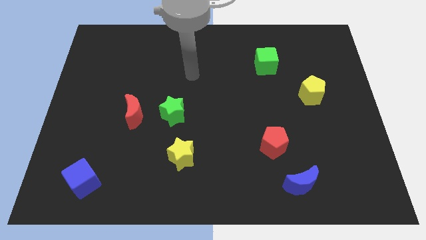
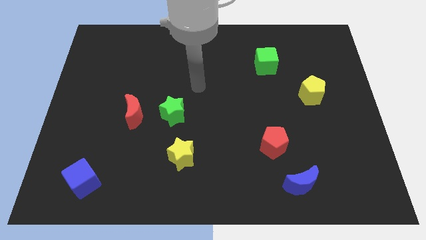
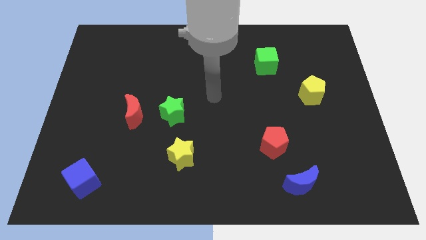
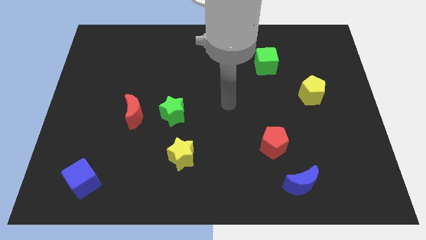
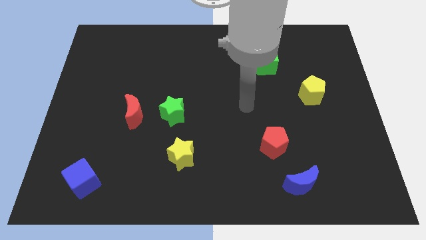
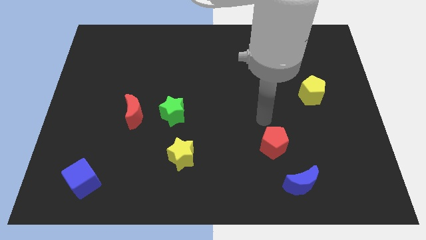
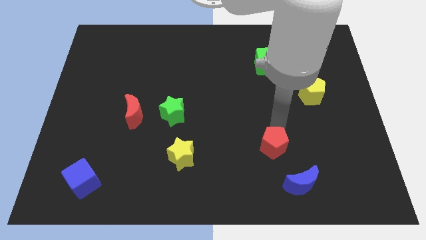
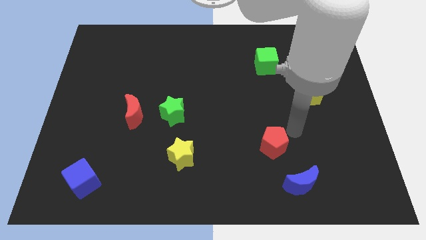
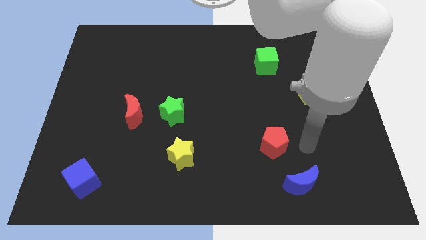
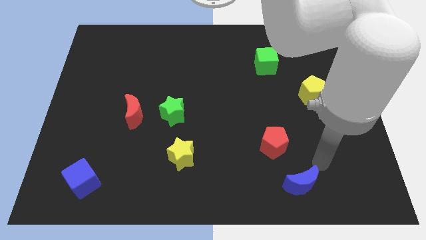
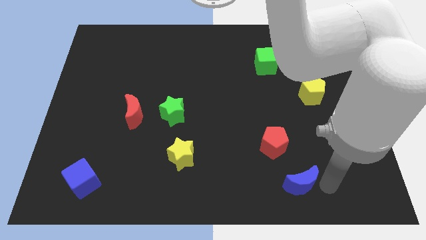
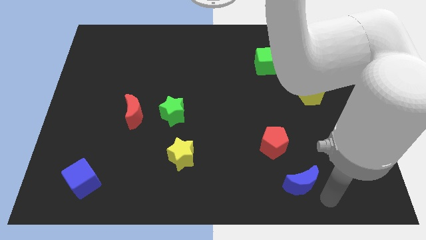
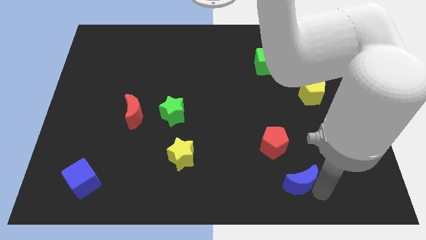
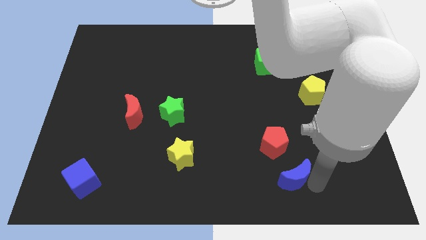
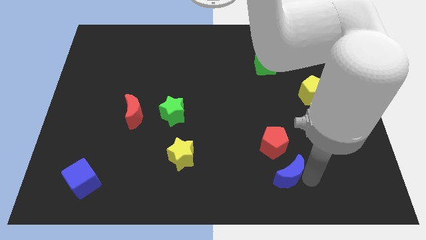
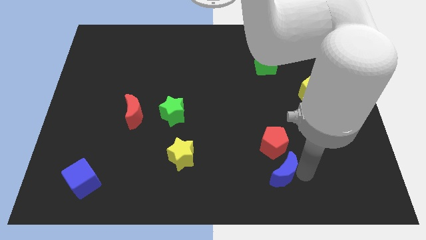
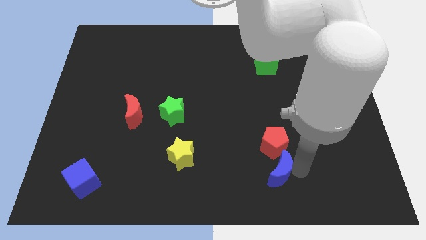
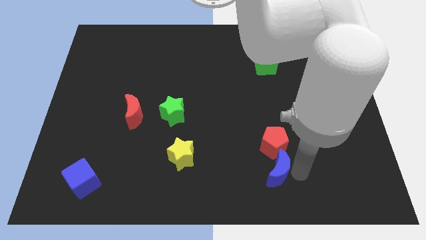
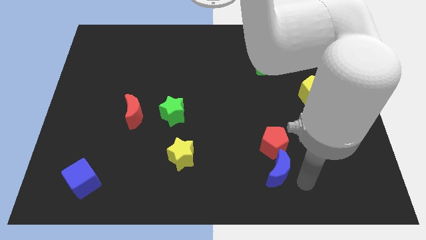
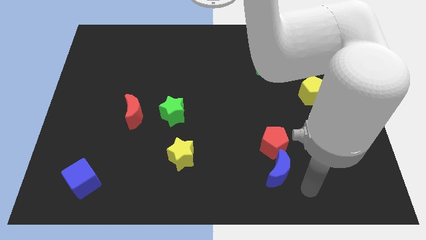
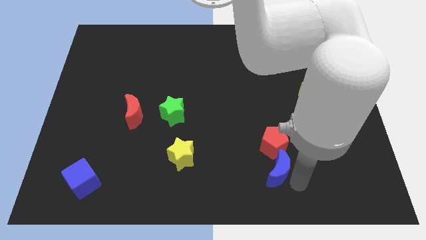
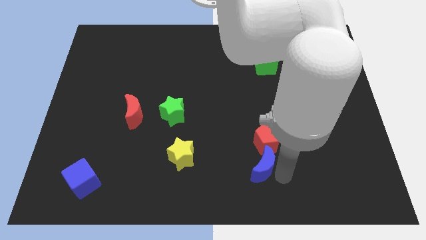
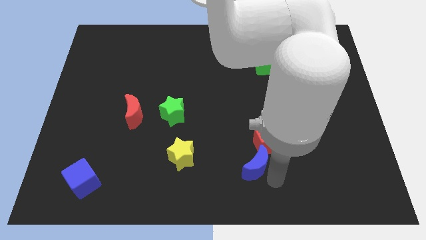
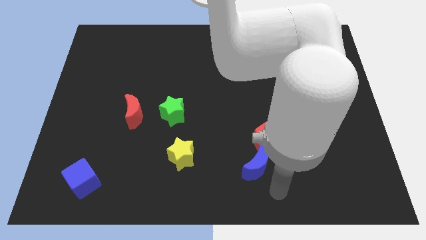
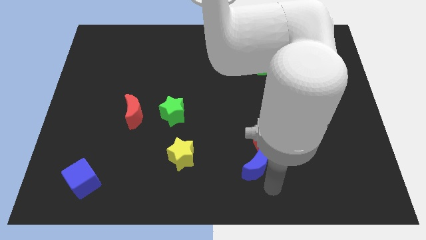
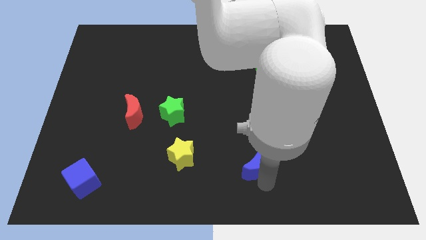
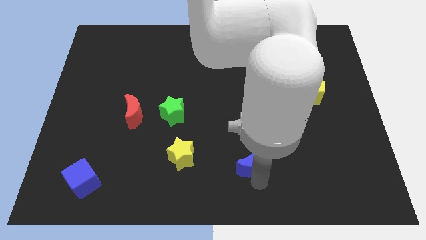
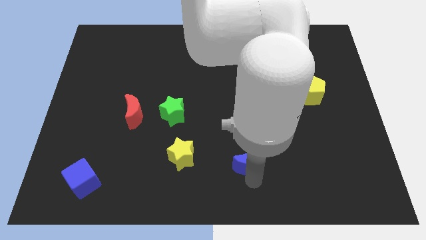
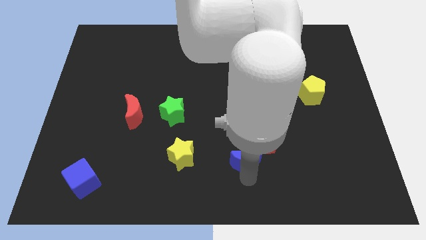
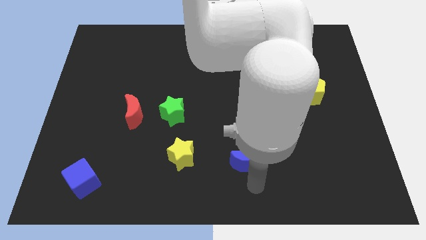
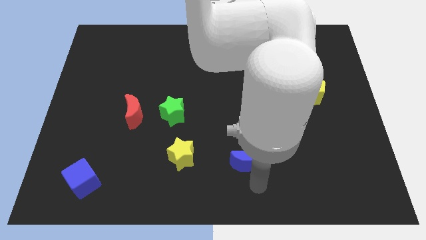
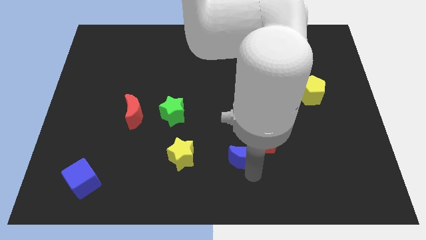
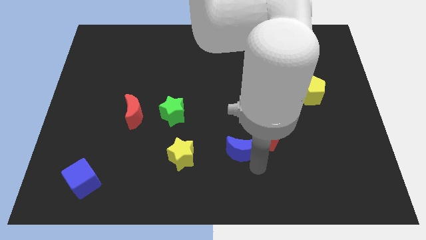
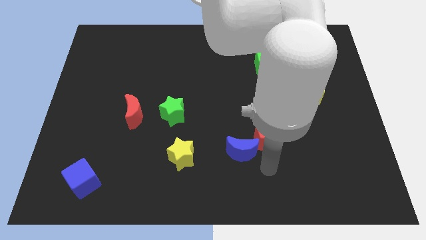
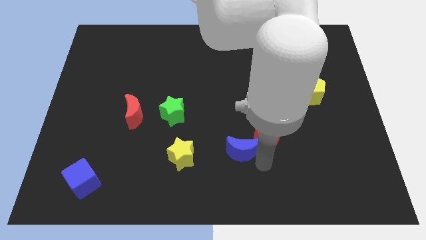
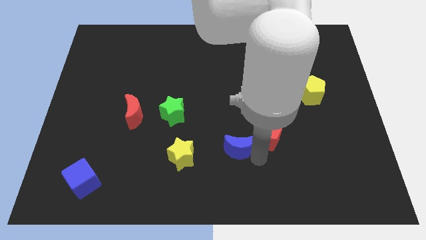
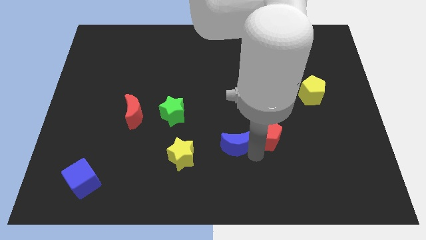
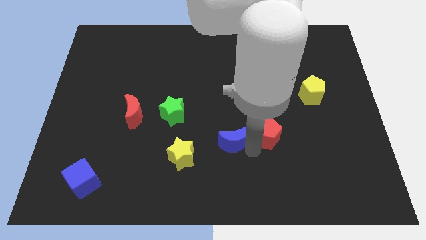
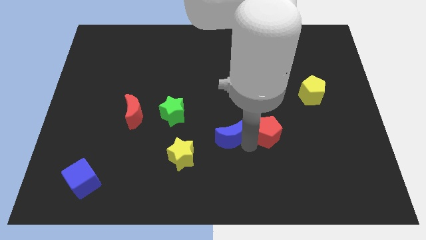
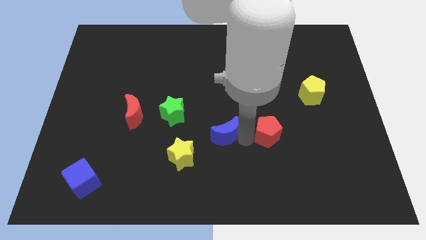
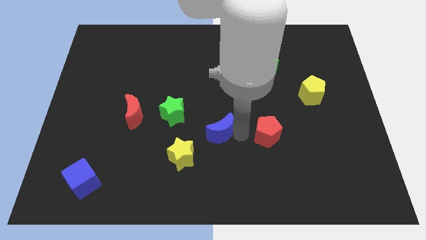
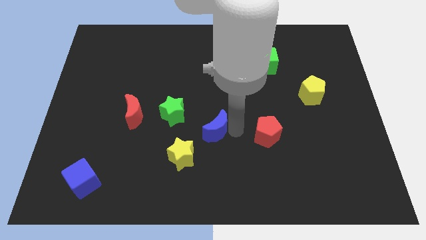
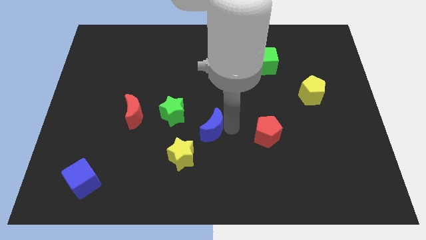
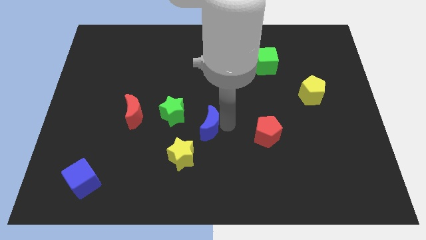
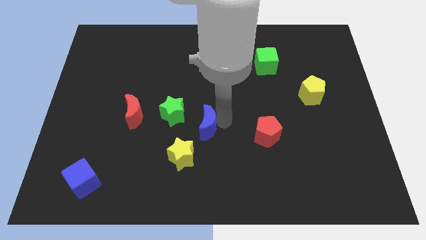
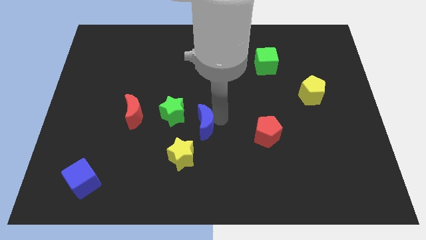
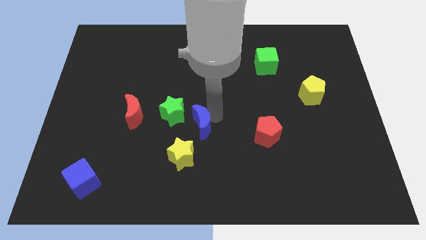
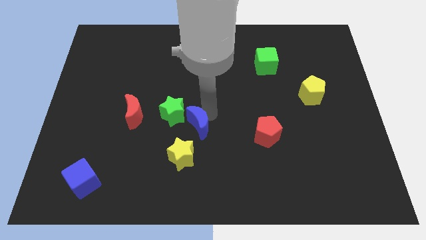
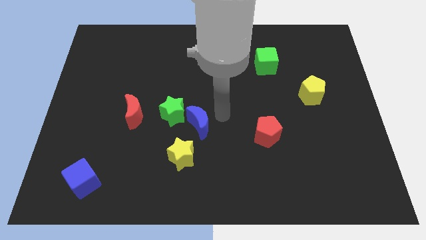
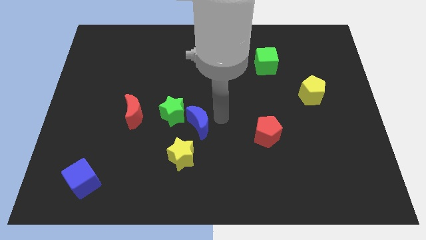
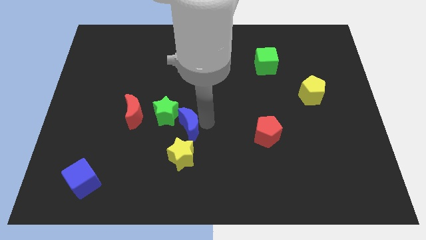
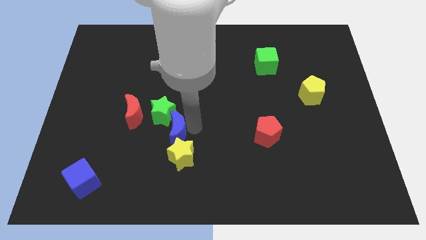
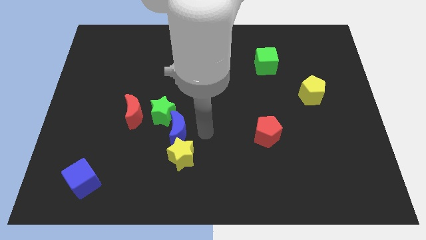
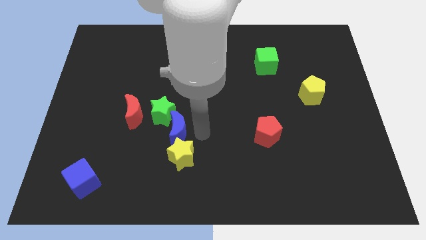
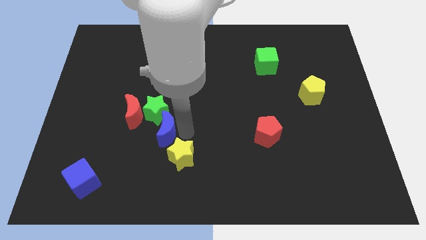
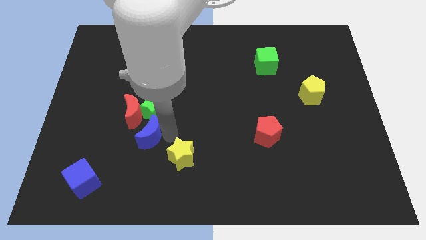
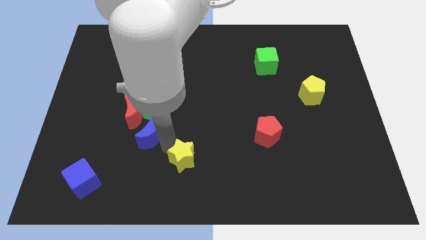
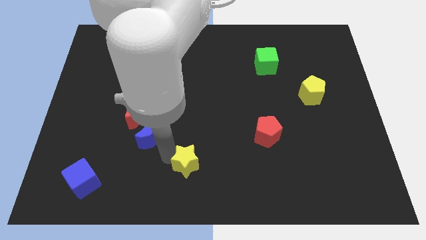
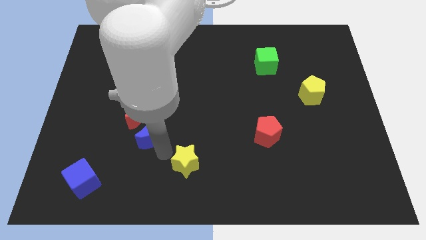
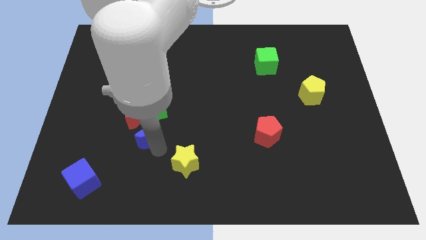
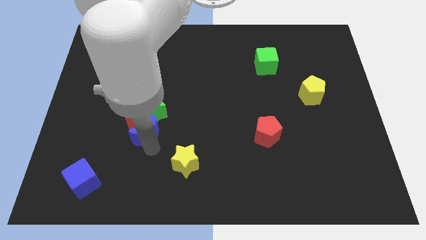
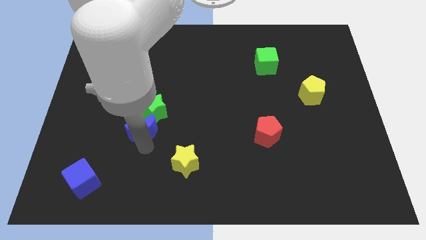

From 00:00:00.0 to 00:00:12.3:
push the blue moon close to the red moon
